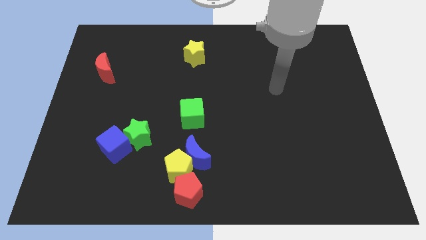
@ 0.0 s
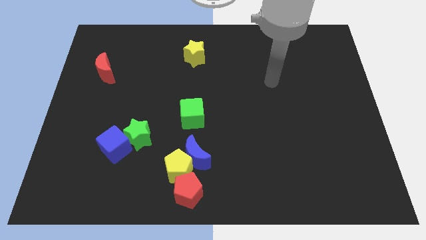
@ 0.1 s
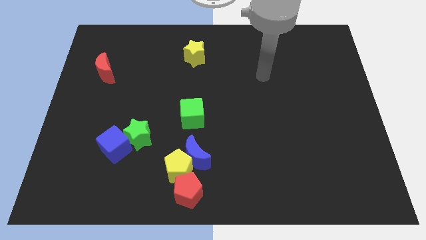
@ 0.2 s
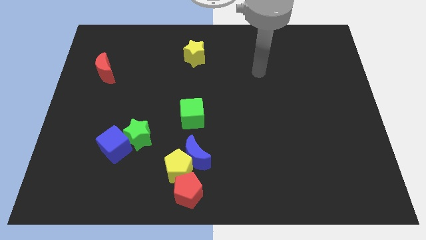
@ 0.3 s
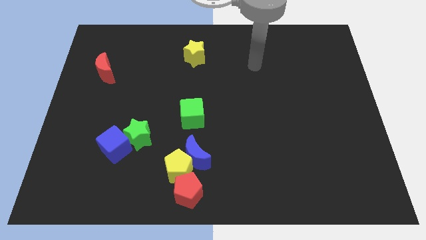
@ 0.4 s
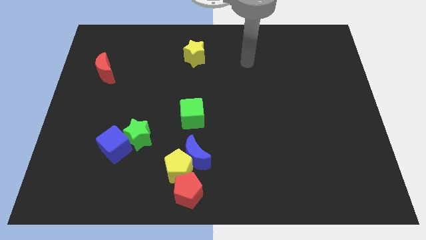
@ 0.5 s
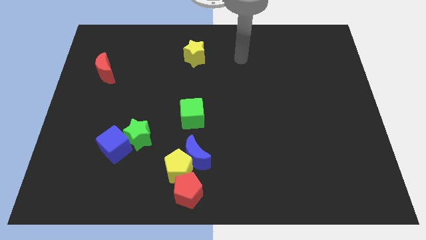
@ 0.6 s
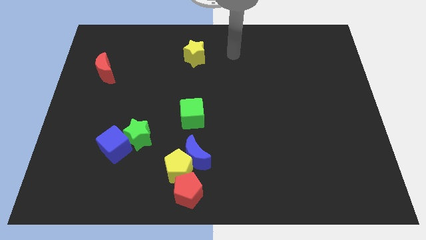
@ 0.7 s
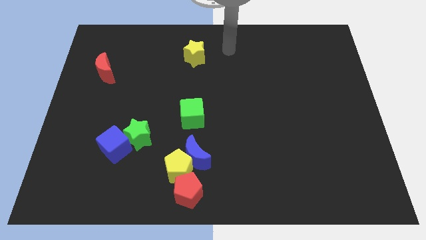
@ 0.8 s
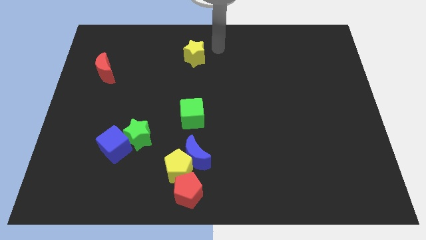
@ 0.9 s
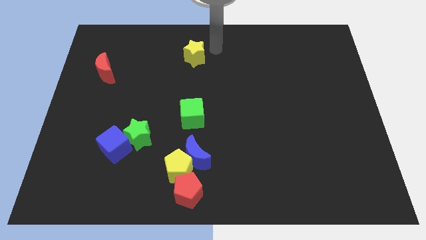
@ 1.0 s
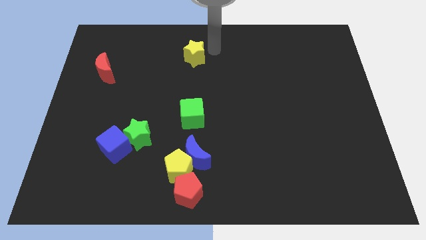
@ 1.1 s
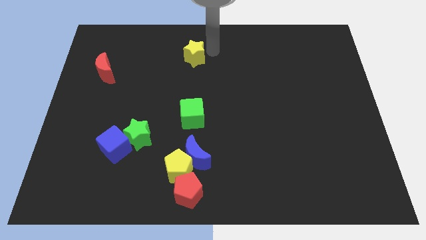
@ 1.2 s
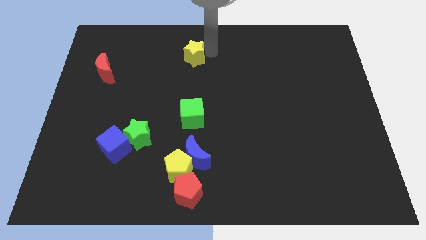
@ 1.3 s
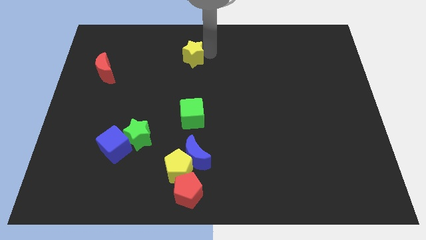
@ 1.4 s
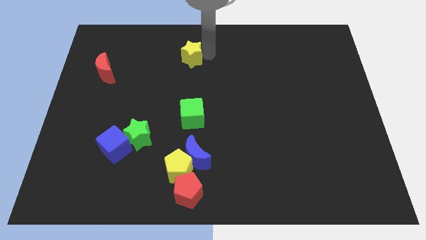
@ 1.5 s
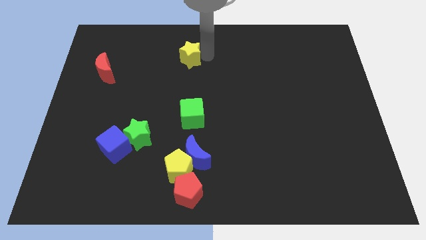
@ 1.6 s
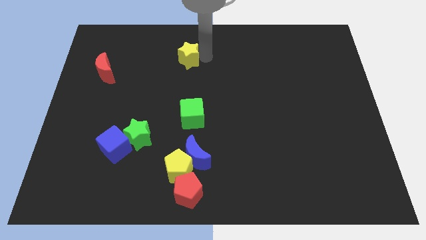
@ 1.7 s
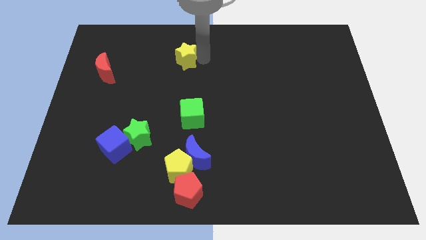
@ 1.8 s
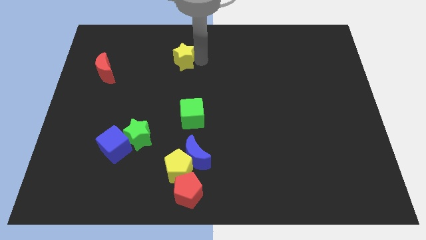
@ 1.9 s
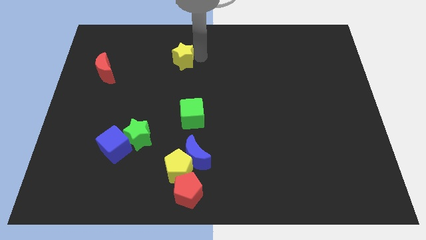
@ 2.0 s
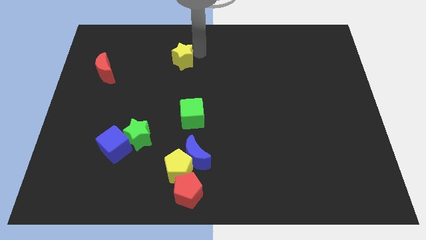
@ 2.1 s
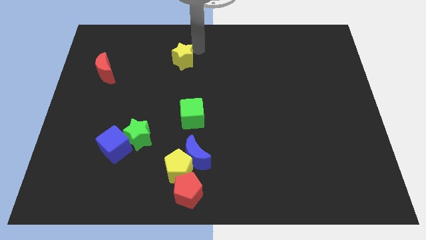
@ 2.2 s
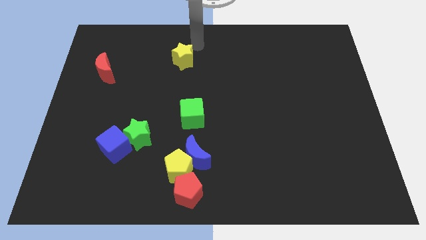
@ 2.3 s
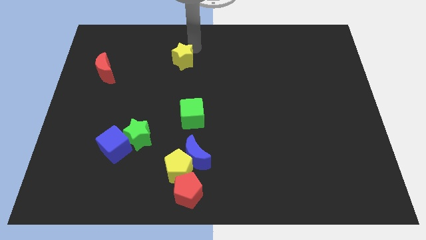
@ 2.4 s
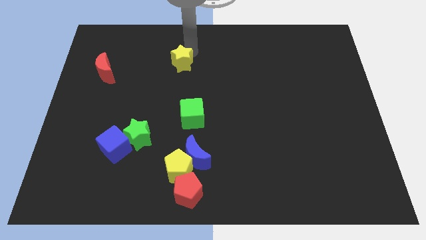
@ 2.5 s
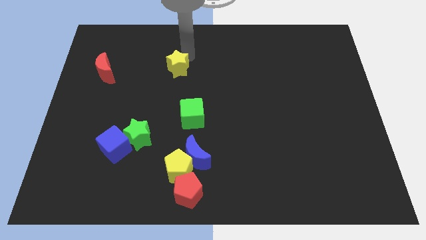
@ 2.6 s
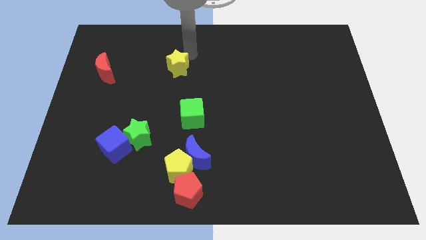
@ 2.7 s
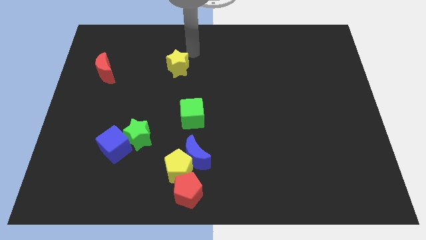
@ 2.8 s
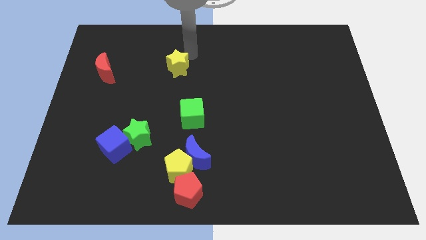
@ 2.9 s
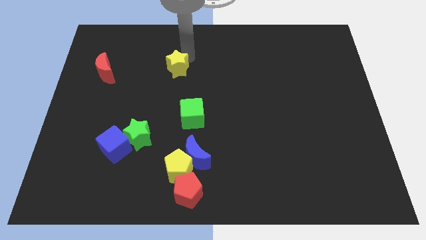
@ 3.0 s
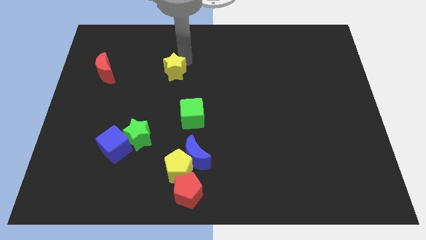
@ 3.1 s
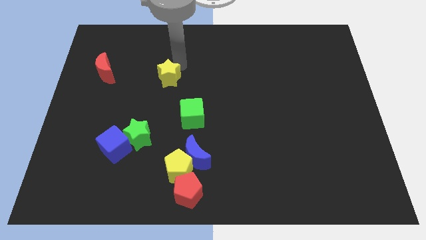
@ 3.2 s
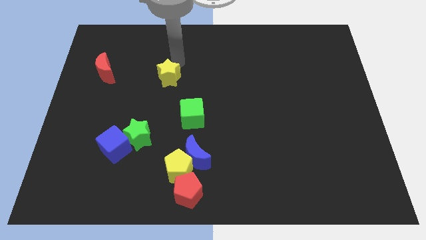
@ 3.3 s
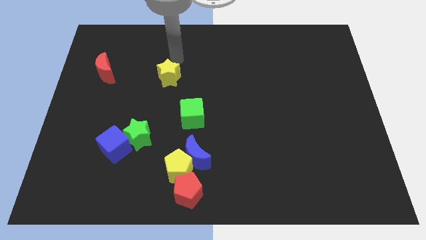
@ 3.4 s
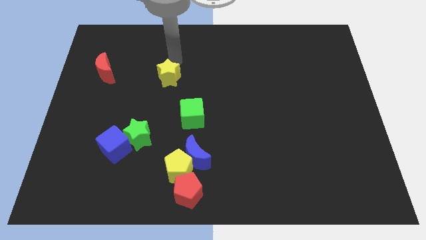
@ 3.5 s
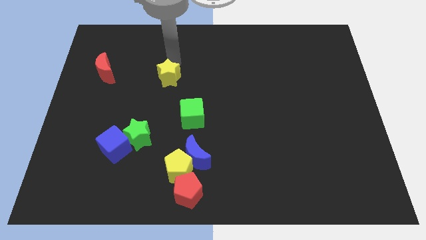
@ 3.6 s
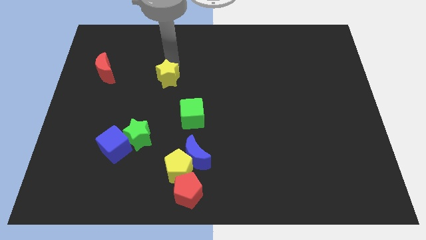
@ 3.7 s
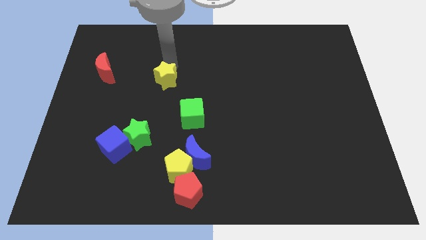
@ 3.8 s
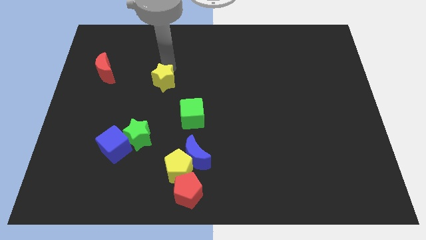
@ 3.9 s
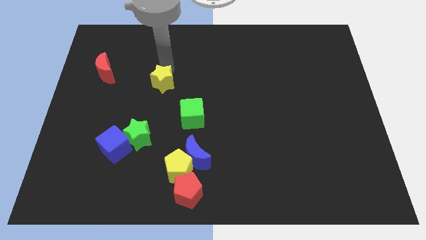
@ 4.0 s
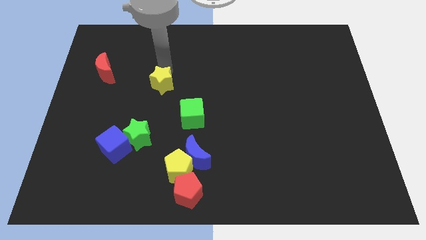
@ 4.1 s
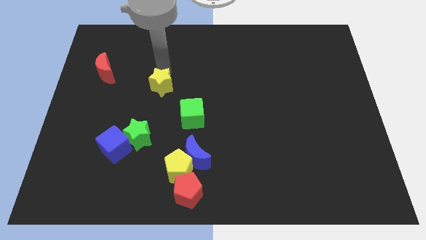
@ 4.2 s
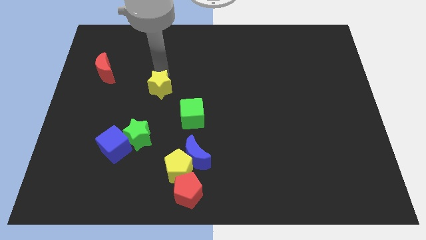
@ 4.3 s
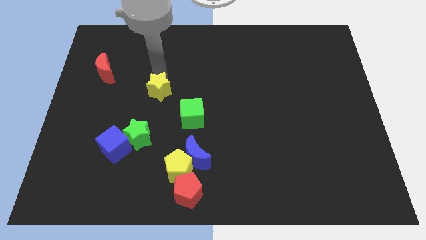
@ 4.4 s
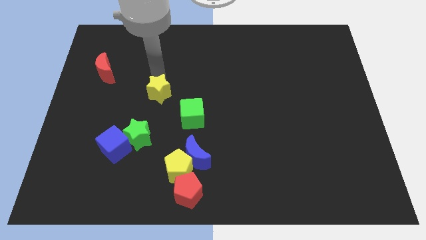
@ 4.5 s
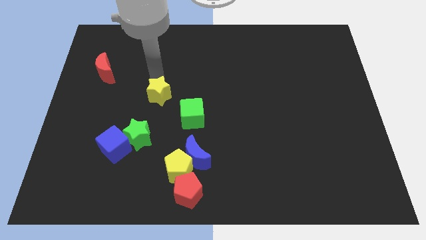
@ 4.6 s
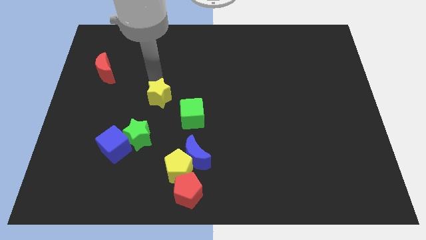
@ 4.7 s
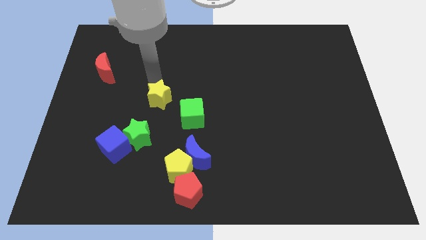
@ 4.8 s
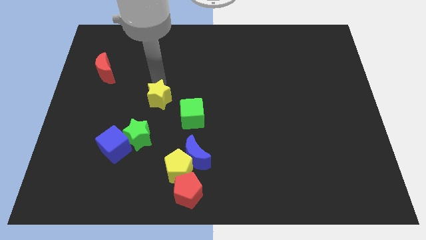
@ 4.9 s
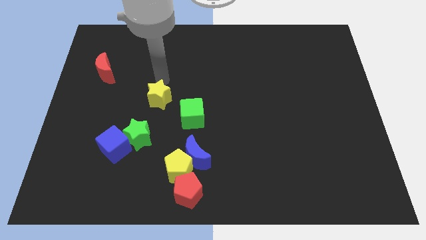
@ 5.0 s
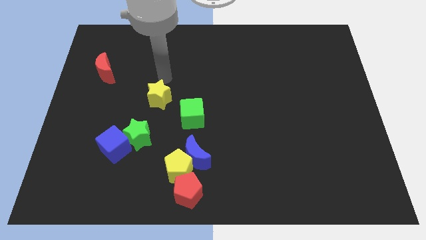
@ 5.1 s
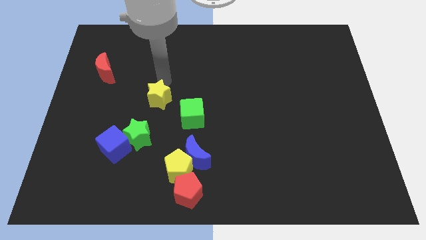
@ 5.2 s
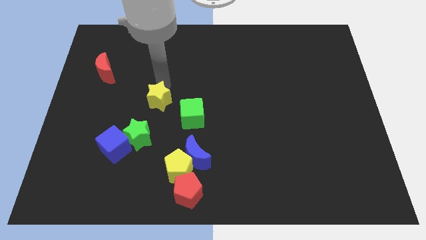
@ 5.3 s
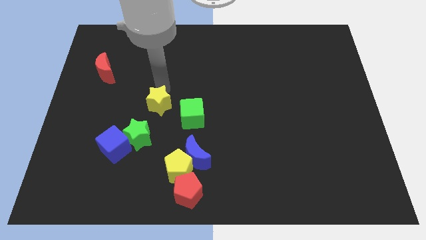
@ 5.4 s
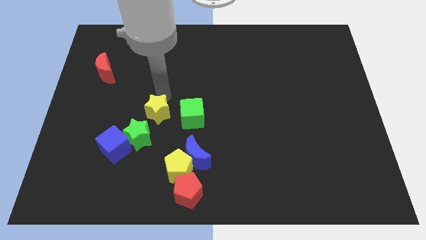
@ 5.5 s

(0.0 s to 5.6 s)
push the yellow star diagonally up and to the right of the blue cube

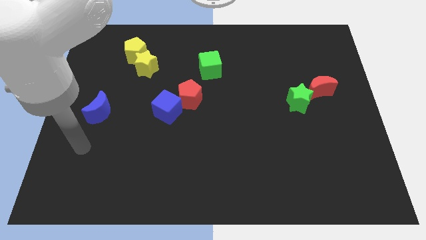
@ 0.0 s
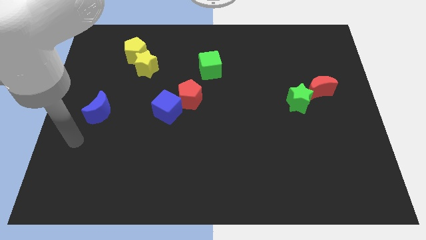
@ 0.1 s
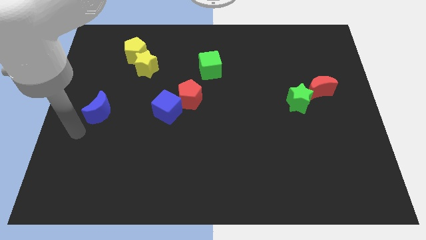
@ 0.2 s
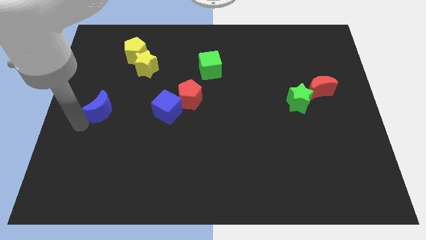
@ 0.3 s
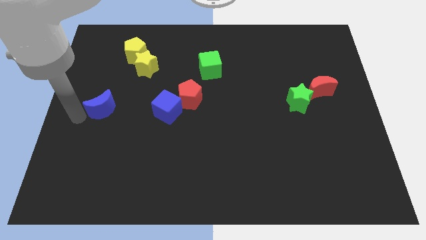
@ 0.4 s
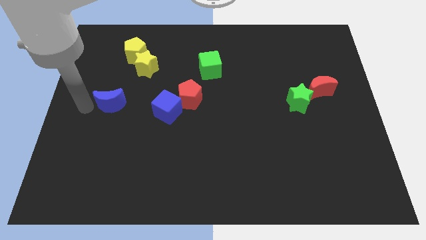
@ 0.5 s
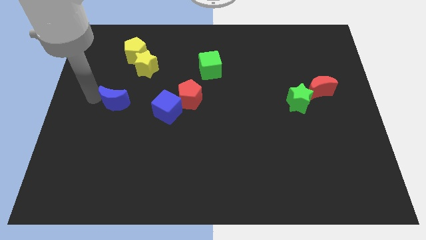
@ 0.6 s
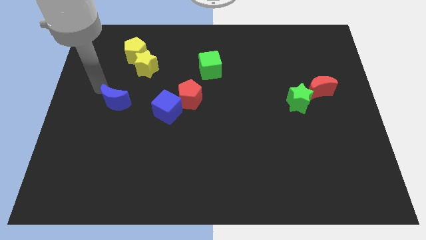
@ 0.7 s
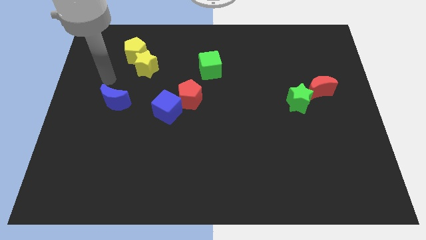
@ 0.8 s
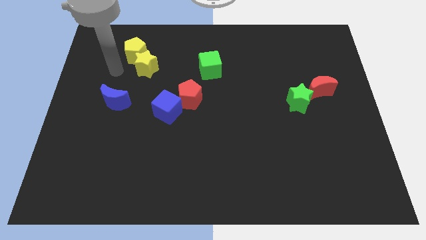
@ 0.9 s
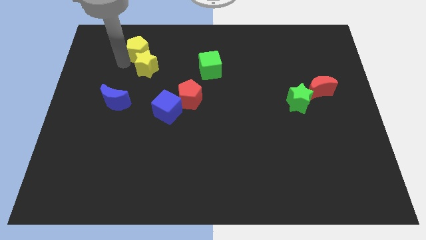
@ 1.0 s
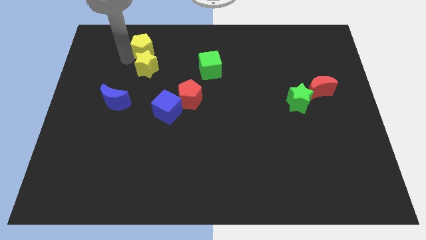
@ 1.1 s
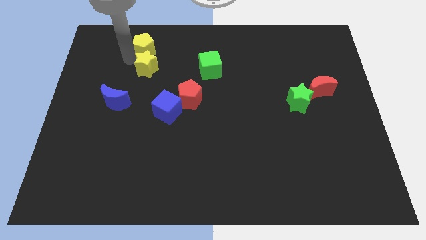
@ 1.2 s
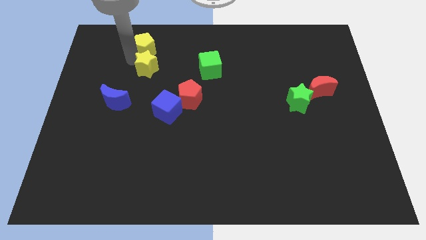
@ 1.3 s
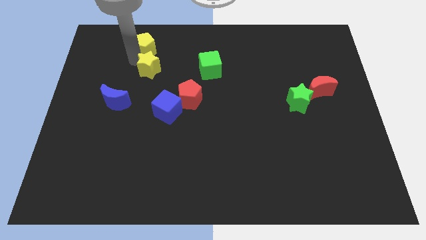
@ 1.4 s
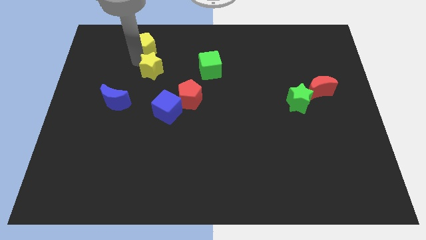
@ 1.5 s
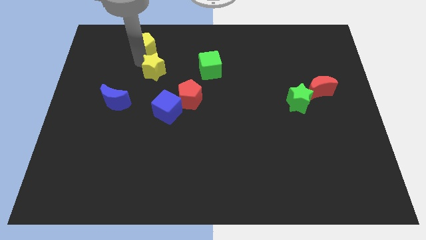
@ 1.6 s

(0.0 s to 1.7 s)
push the yellow star above the blue cube
